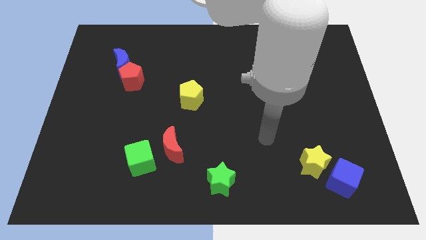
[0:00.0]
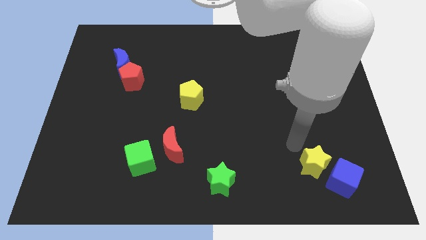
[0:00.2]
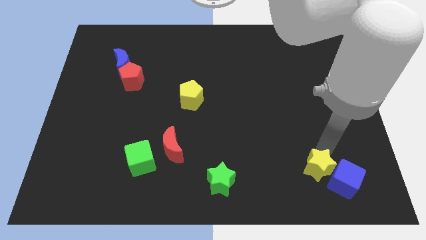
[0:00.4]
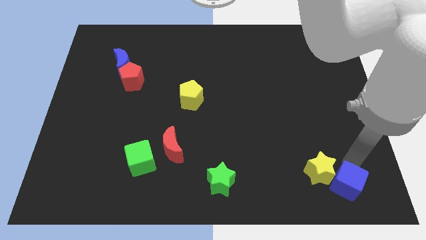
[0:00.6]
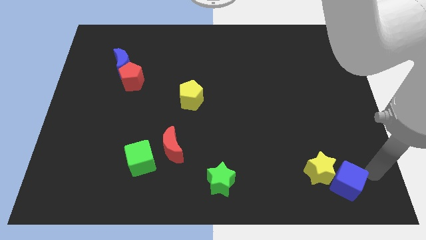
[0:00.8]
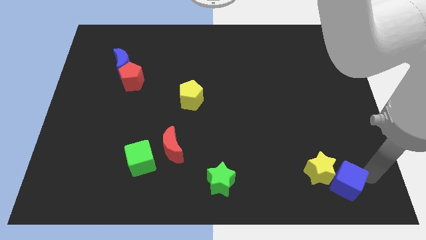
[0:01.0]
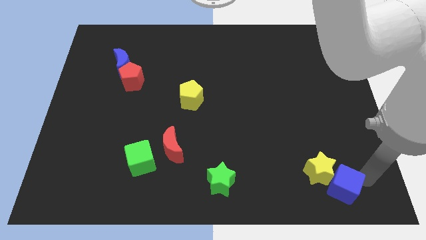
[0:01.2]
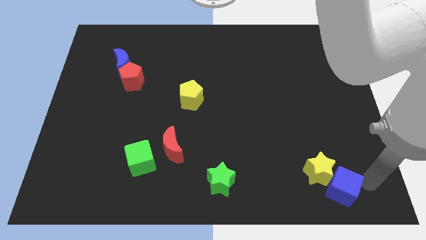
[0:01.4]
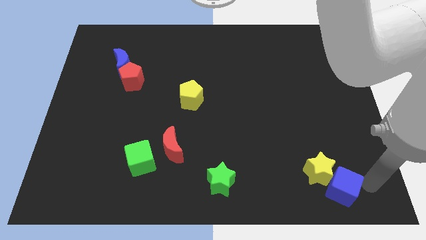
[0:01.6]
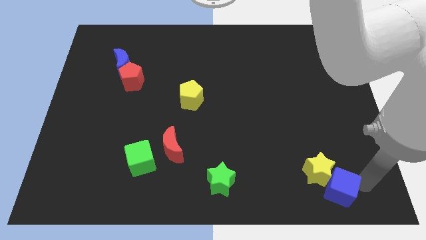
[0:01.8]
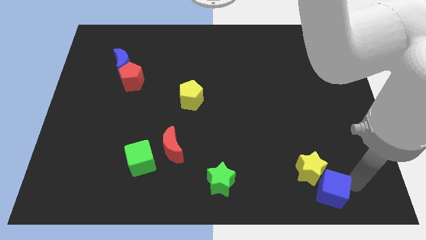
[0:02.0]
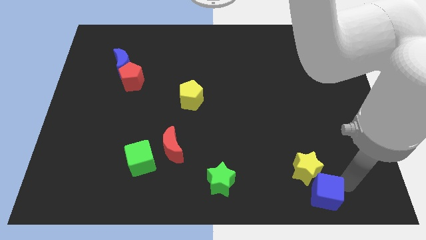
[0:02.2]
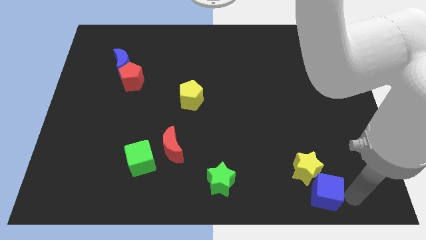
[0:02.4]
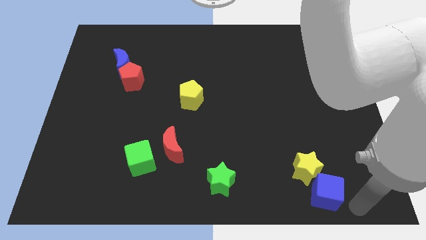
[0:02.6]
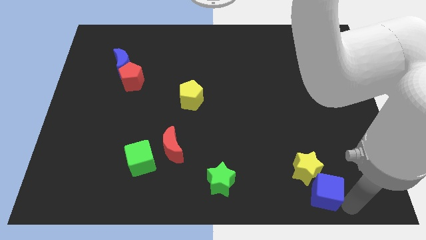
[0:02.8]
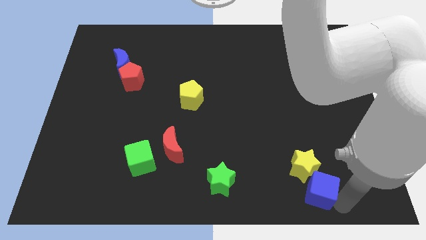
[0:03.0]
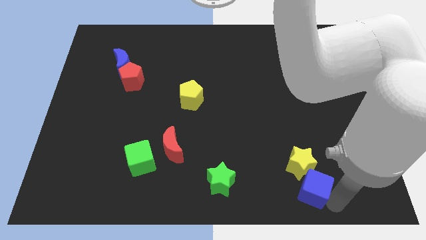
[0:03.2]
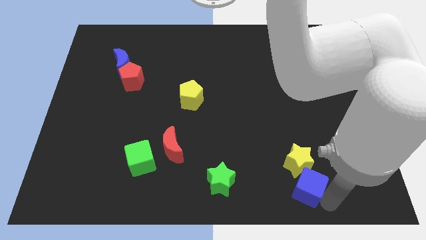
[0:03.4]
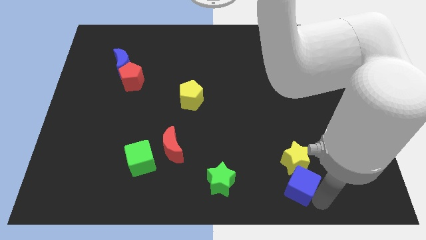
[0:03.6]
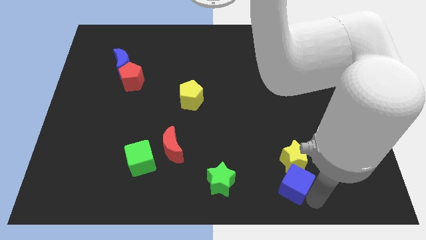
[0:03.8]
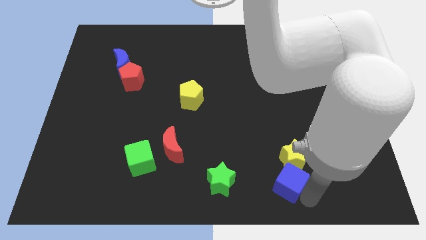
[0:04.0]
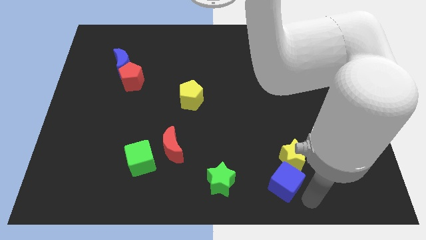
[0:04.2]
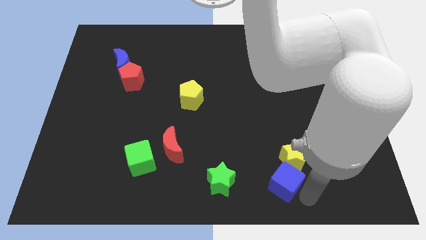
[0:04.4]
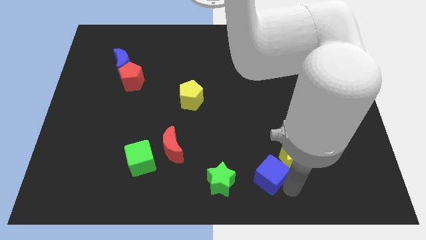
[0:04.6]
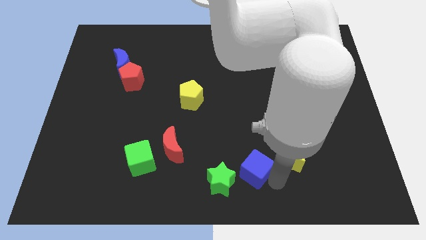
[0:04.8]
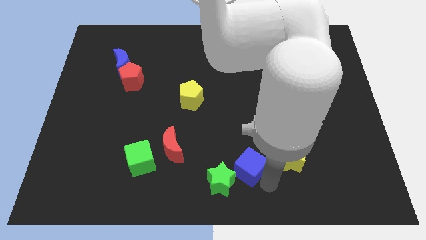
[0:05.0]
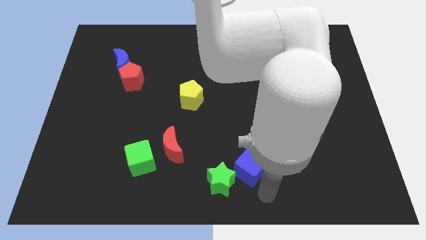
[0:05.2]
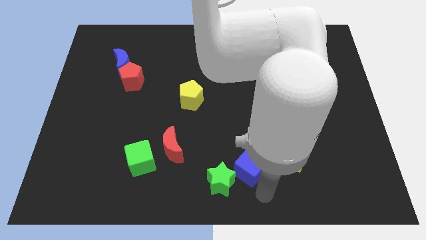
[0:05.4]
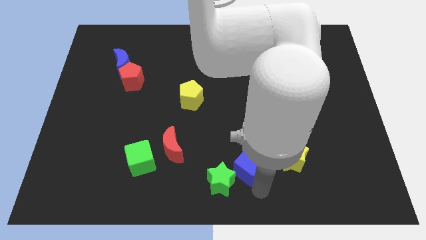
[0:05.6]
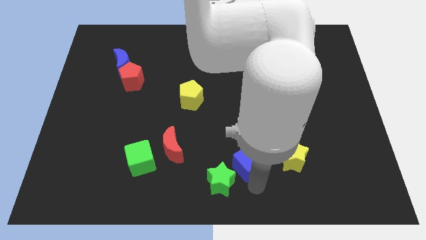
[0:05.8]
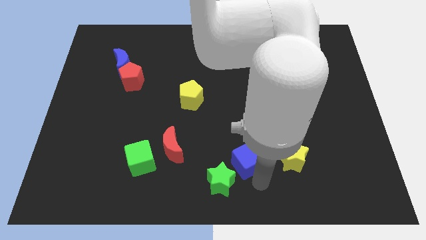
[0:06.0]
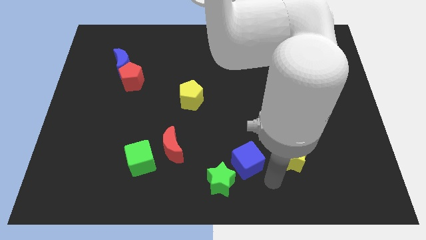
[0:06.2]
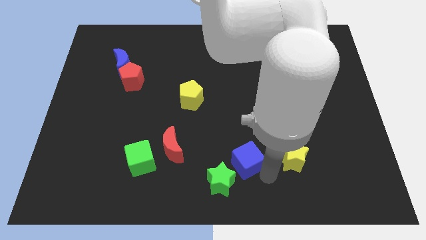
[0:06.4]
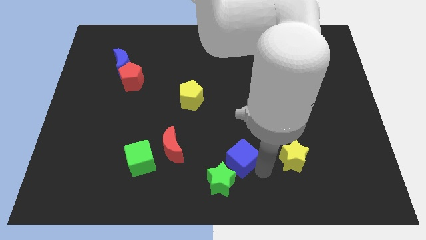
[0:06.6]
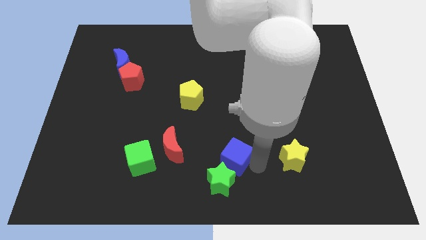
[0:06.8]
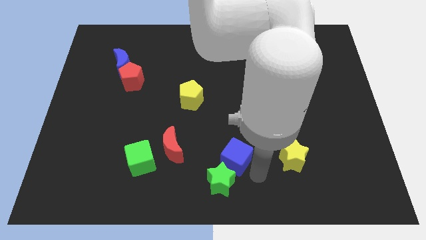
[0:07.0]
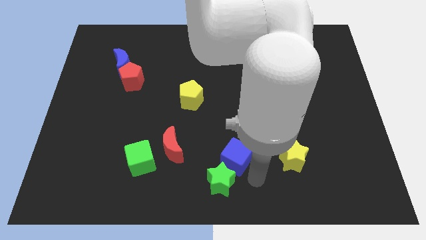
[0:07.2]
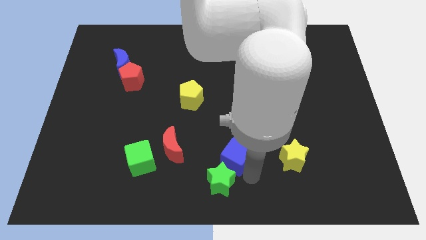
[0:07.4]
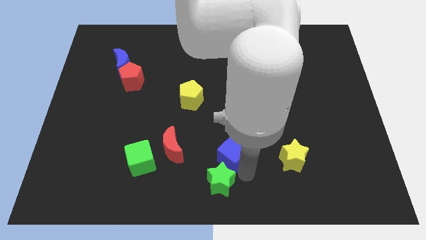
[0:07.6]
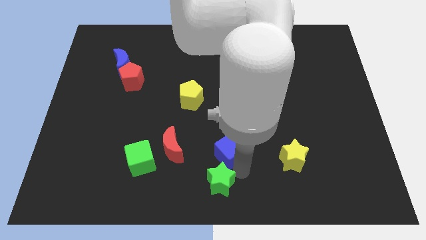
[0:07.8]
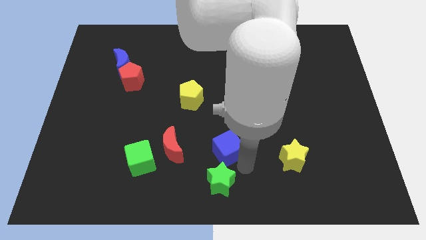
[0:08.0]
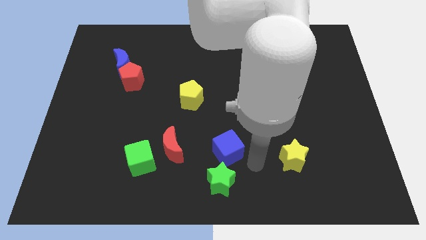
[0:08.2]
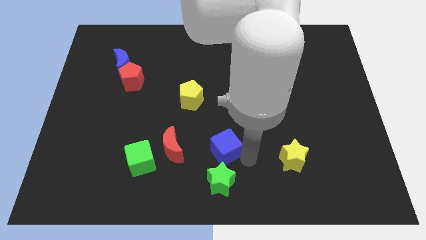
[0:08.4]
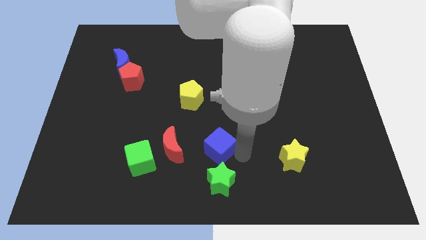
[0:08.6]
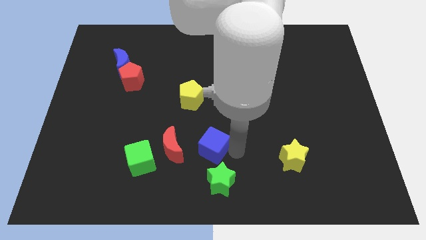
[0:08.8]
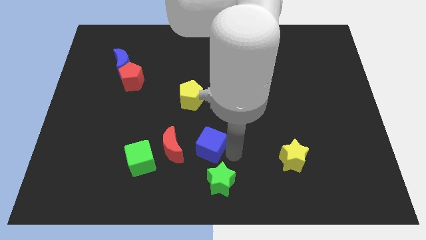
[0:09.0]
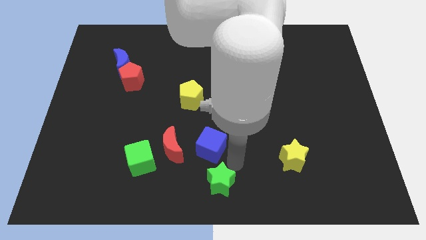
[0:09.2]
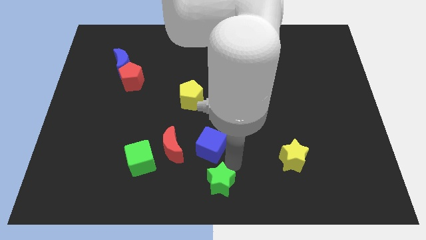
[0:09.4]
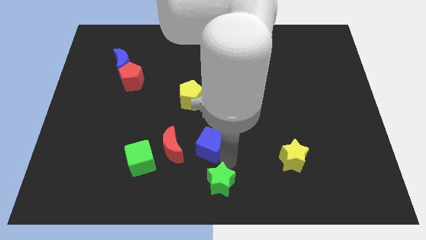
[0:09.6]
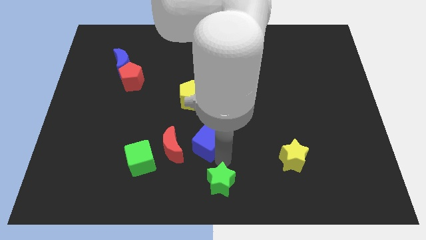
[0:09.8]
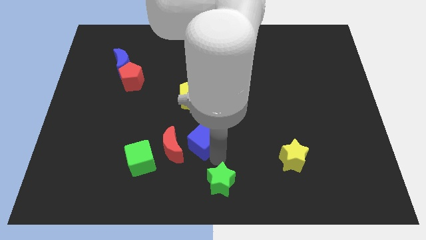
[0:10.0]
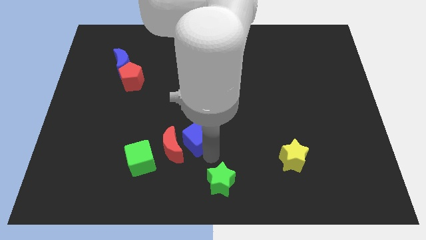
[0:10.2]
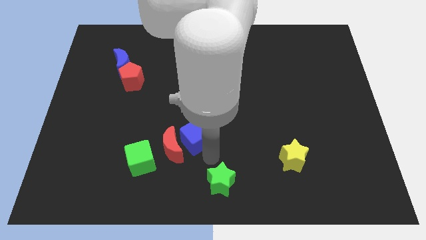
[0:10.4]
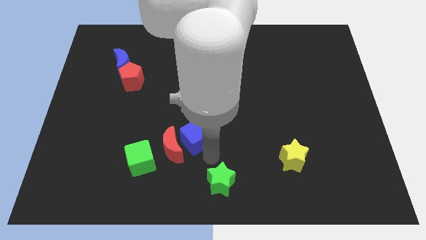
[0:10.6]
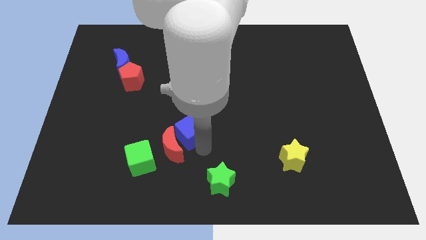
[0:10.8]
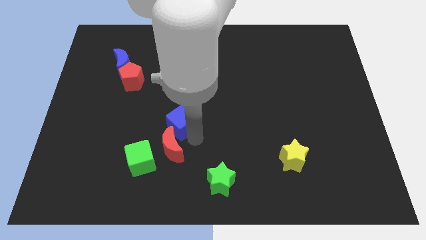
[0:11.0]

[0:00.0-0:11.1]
push the blue cube diagonally down and to the left of the yellow pentagon

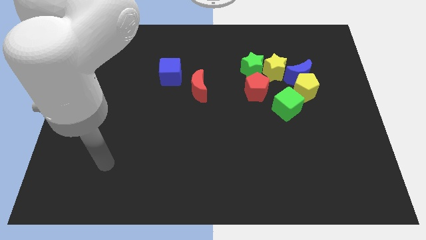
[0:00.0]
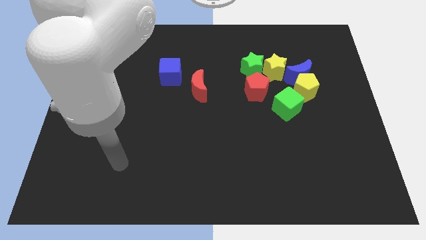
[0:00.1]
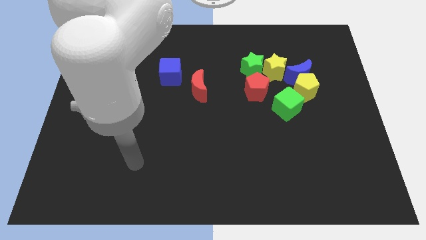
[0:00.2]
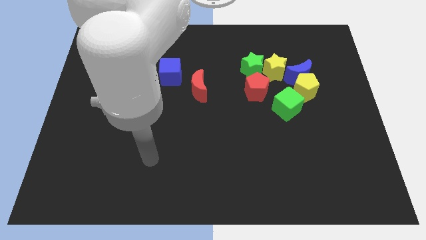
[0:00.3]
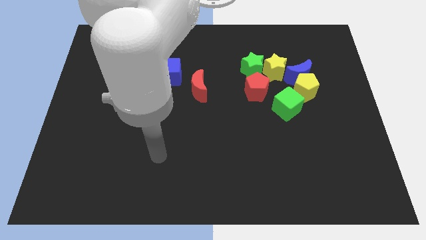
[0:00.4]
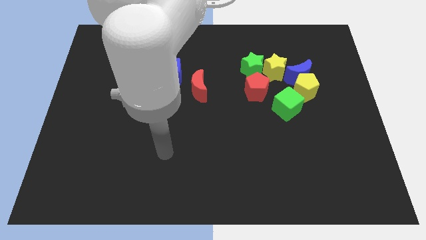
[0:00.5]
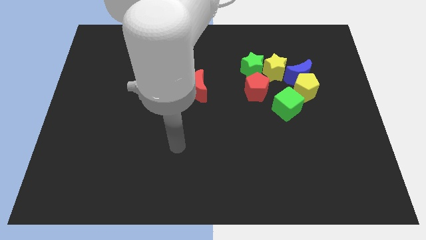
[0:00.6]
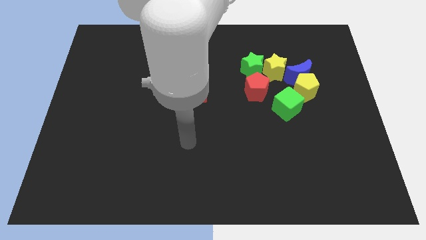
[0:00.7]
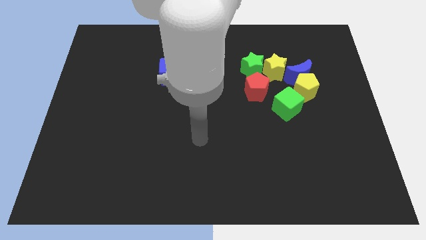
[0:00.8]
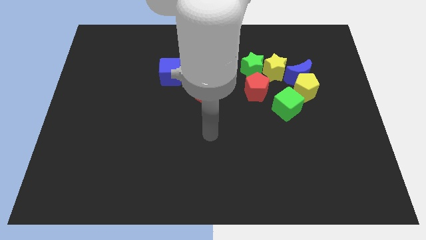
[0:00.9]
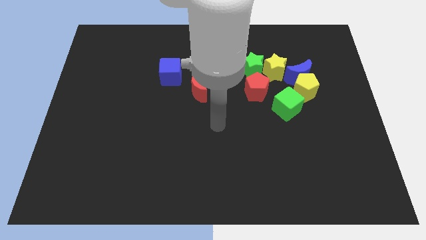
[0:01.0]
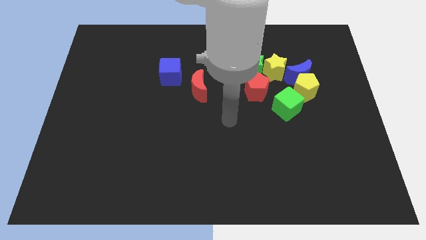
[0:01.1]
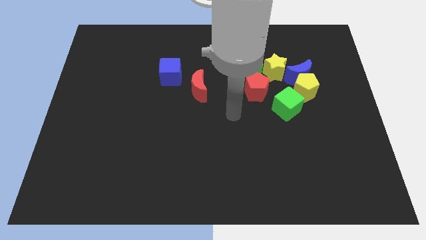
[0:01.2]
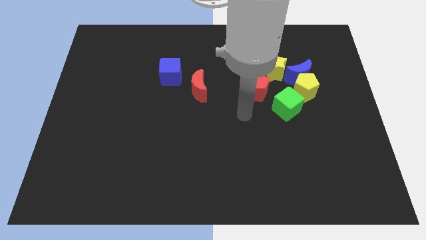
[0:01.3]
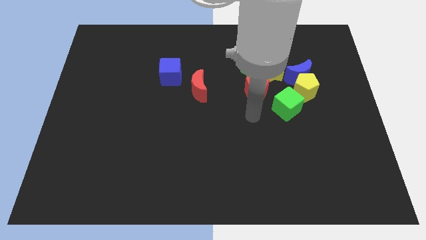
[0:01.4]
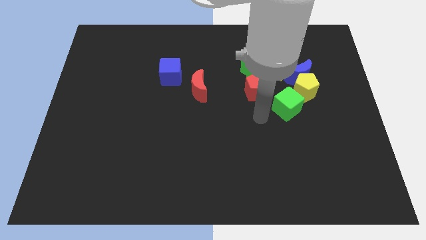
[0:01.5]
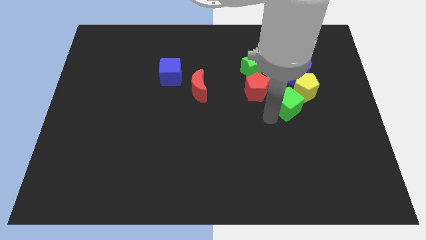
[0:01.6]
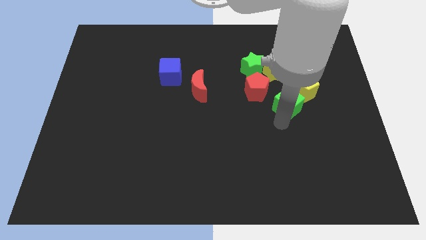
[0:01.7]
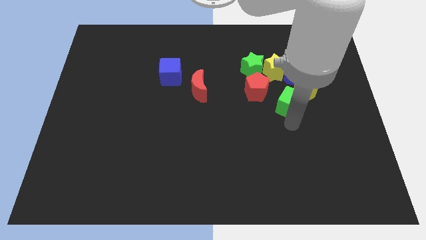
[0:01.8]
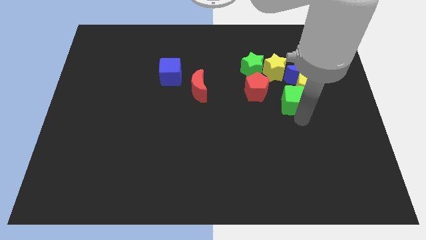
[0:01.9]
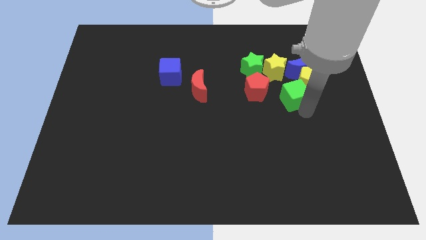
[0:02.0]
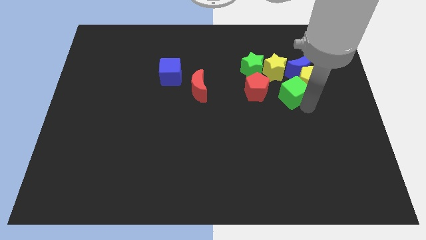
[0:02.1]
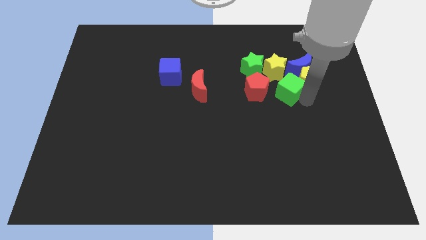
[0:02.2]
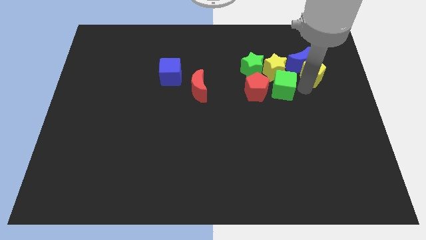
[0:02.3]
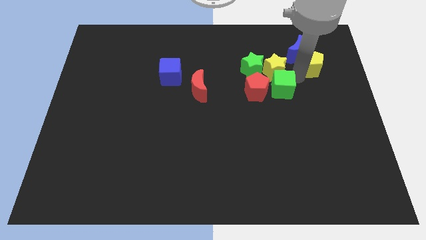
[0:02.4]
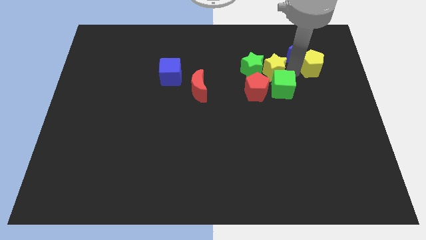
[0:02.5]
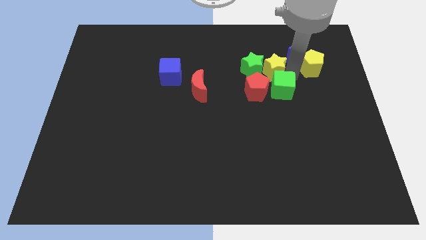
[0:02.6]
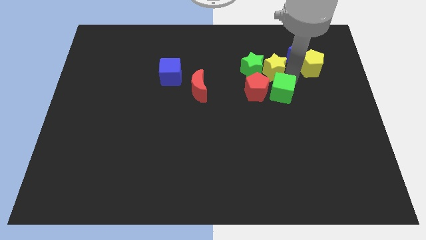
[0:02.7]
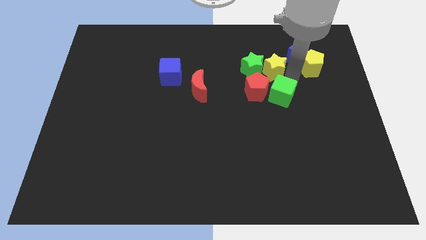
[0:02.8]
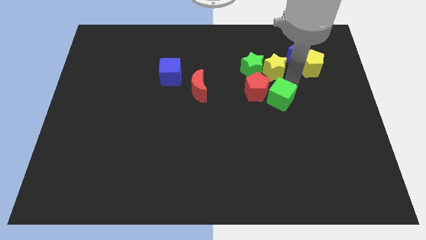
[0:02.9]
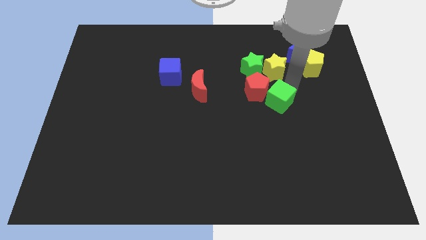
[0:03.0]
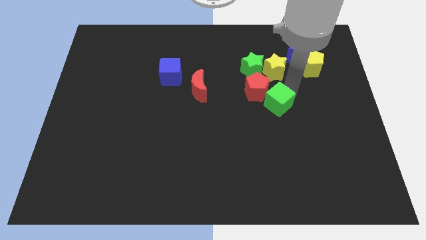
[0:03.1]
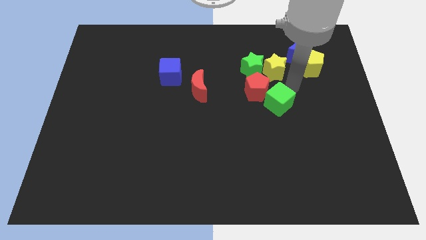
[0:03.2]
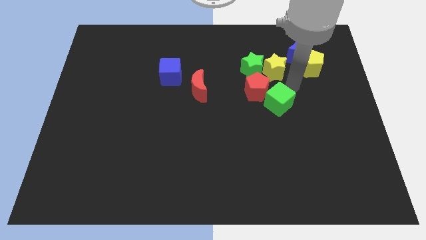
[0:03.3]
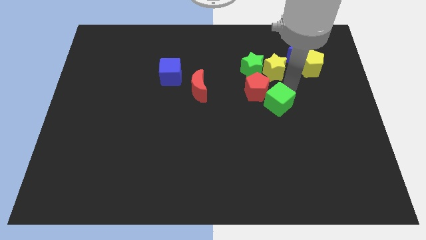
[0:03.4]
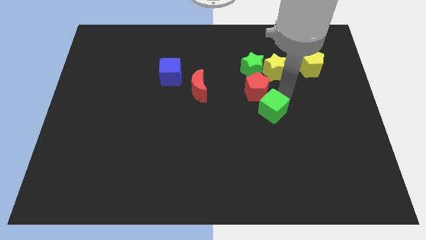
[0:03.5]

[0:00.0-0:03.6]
slide the green cube to the bottom side of the red pentagon
